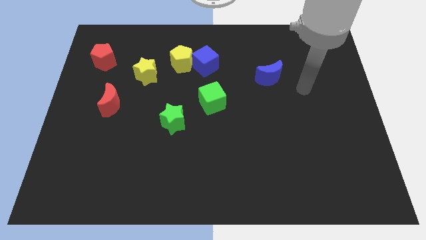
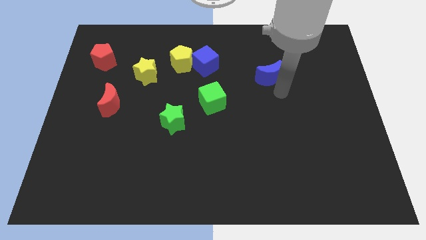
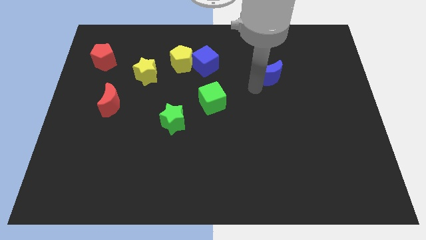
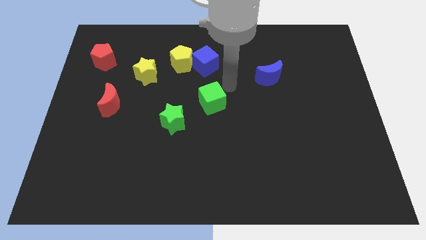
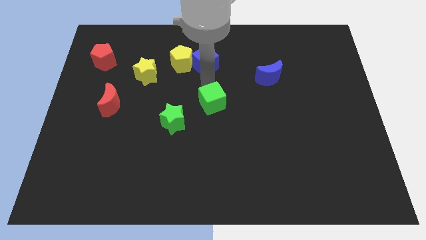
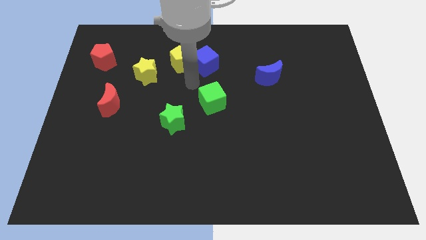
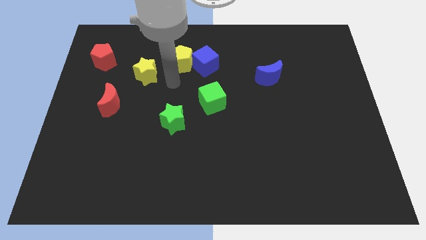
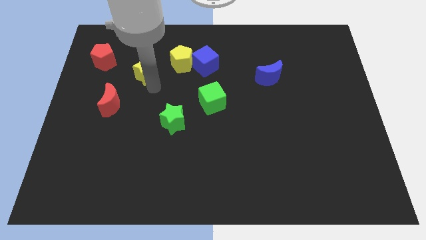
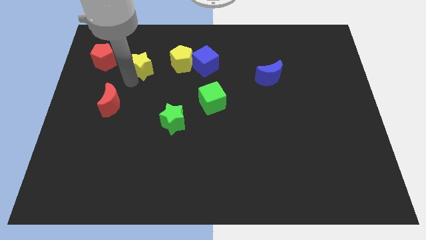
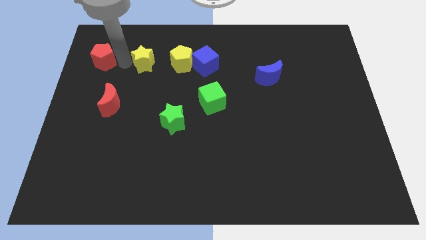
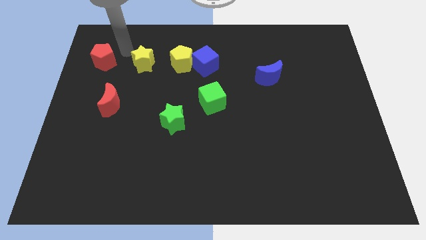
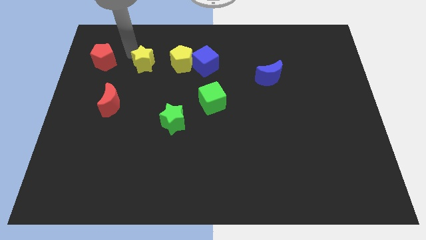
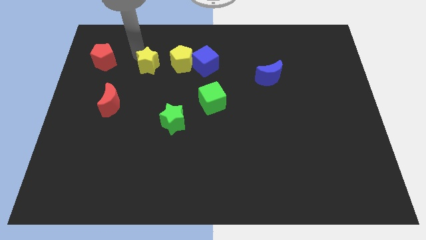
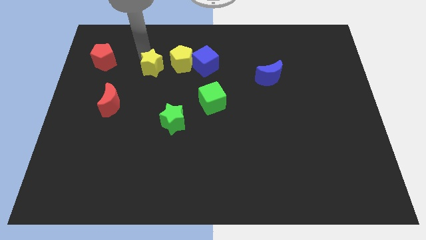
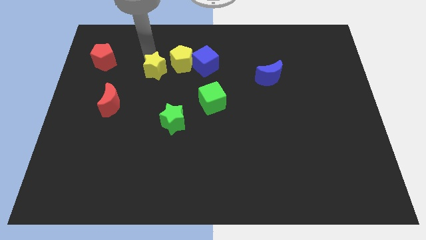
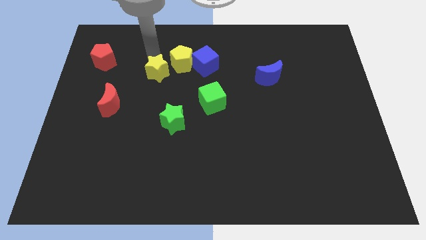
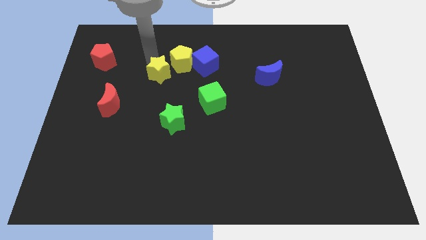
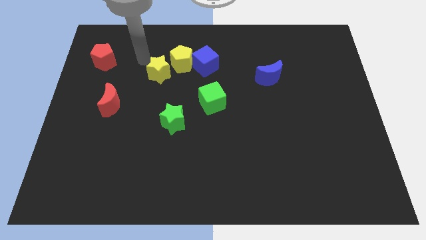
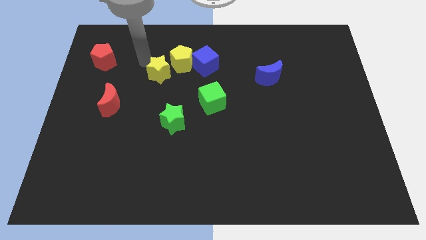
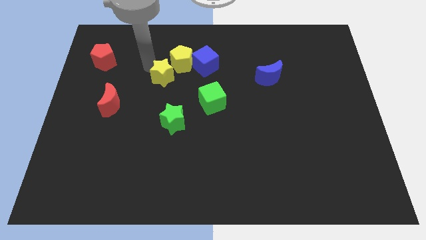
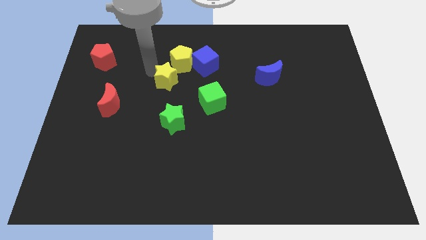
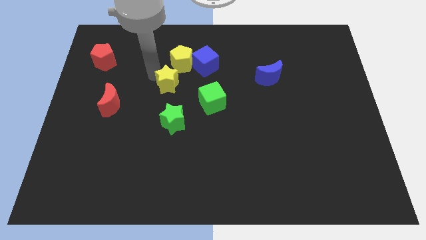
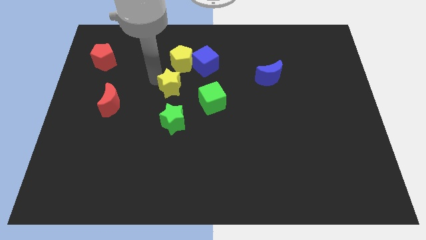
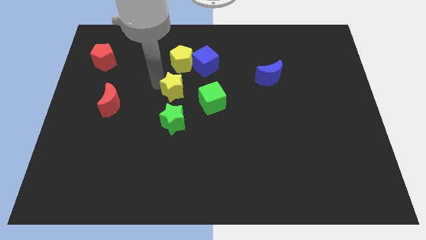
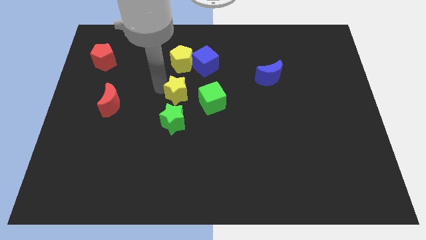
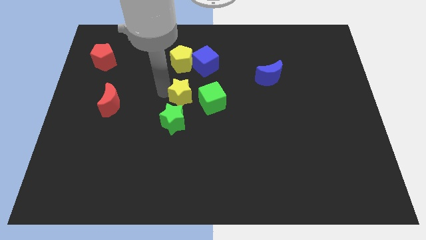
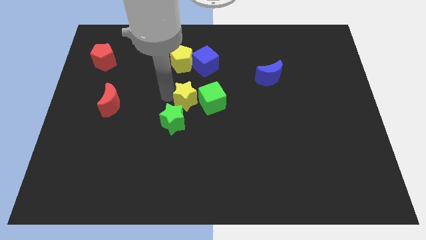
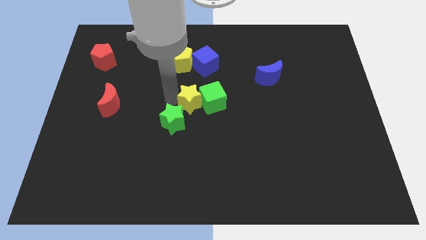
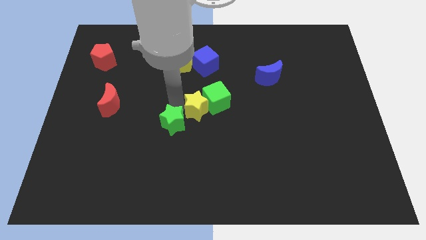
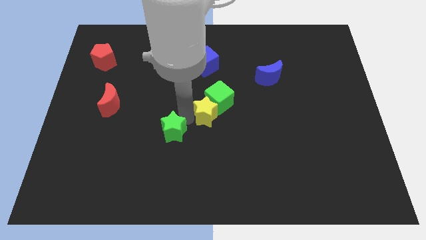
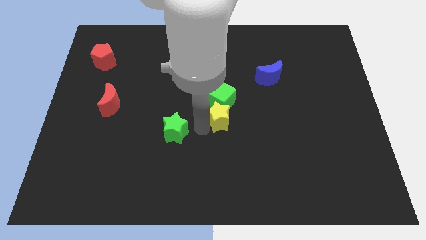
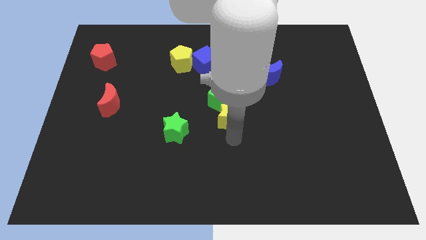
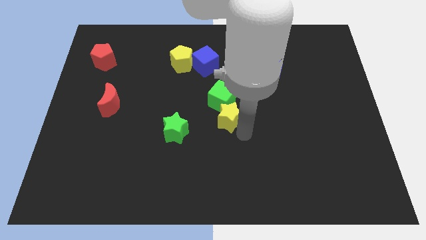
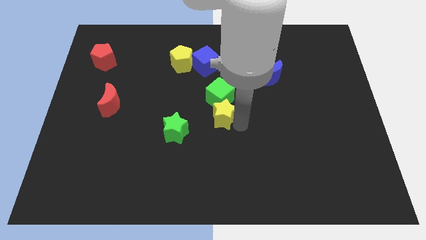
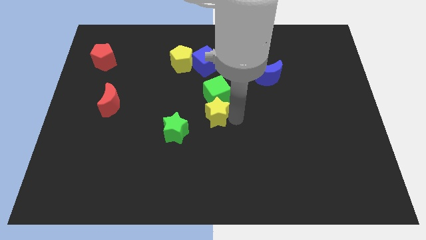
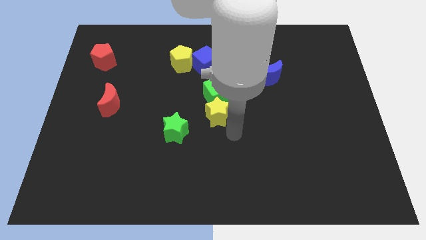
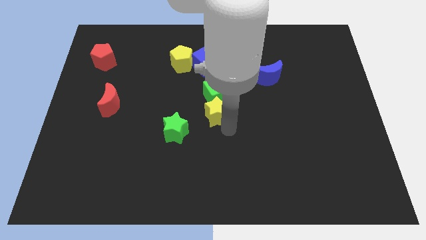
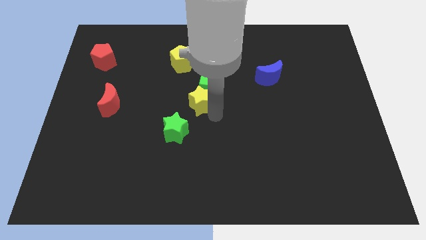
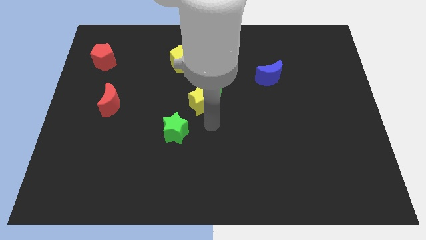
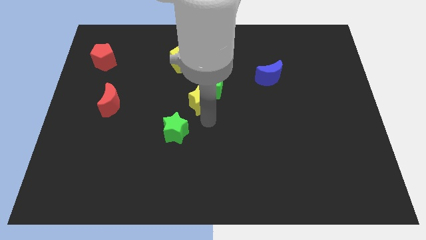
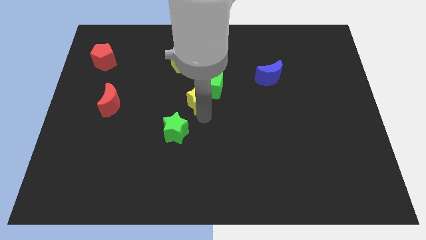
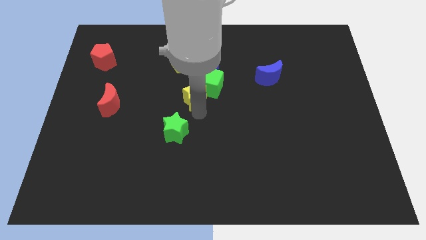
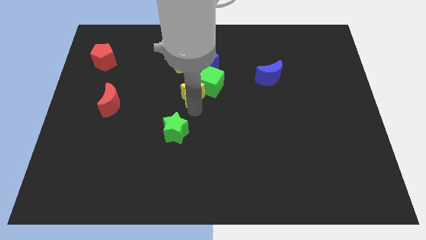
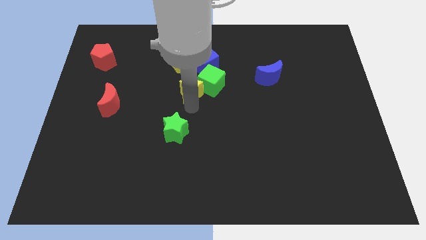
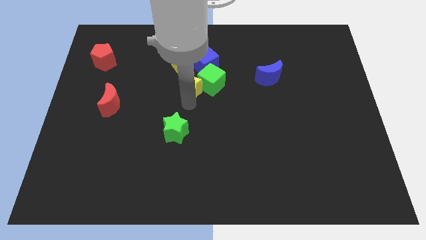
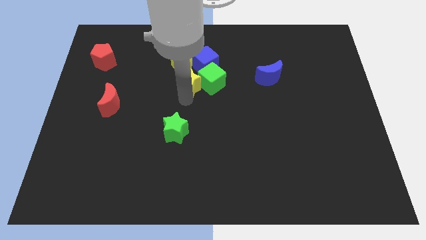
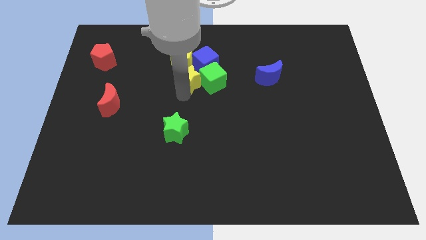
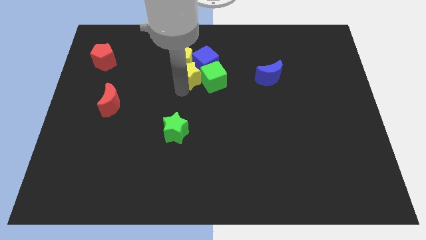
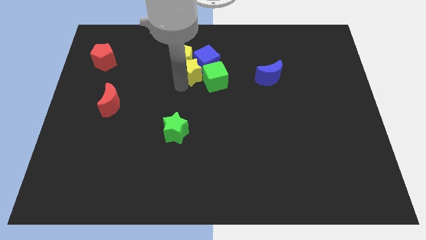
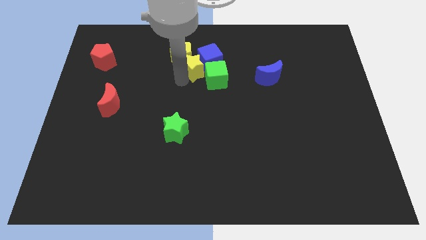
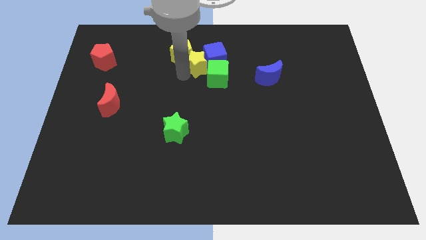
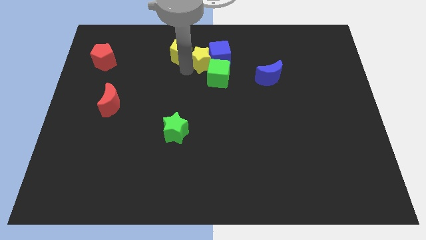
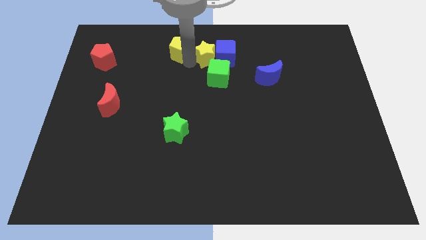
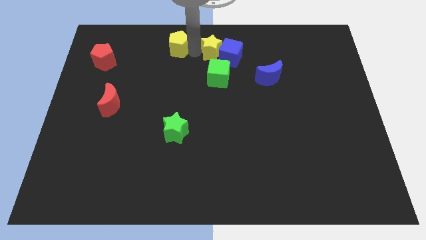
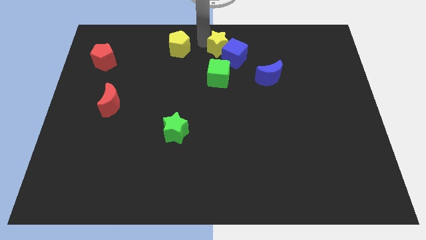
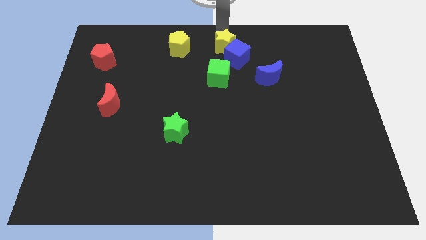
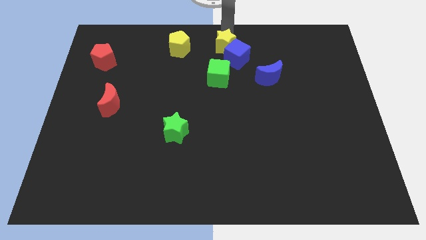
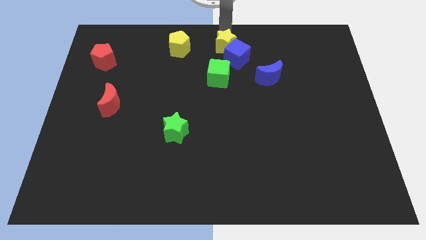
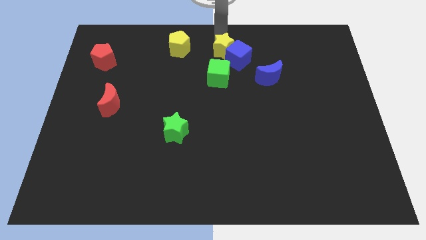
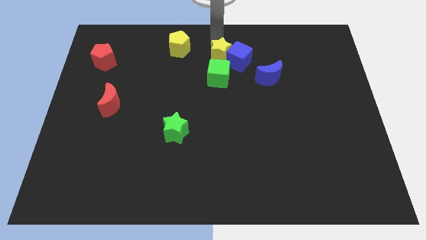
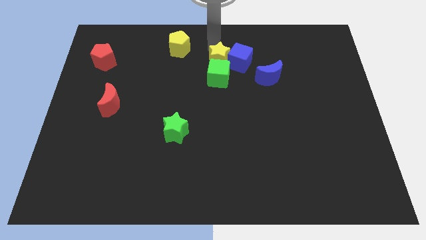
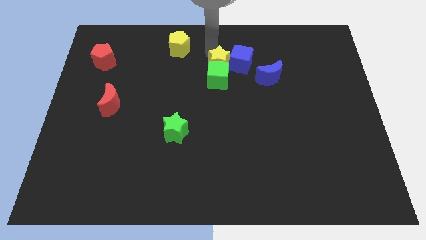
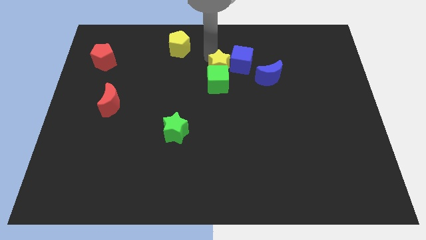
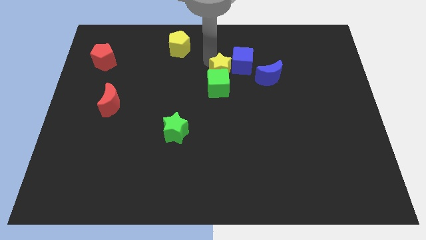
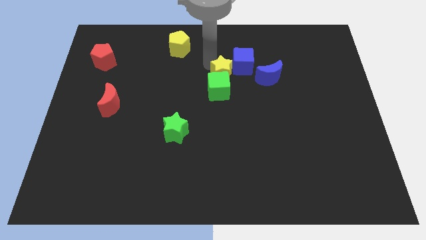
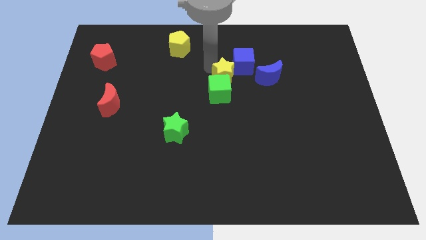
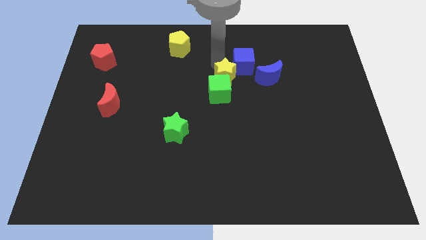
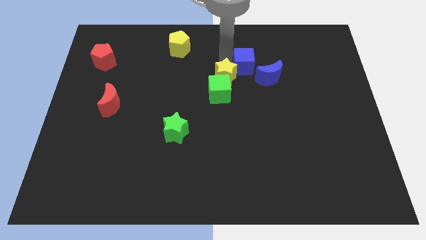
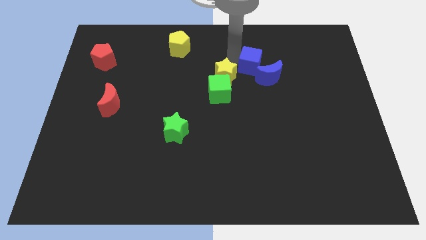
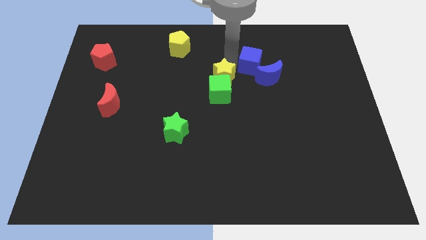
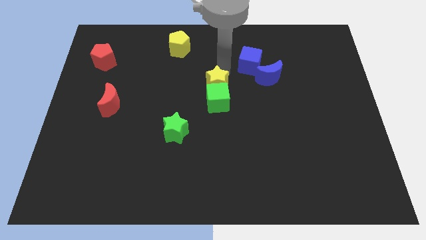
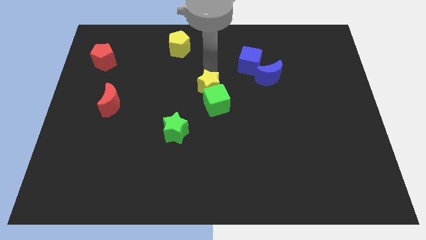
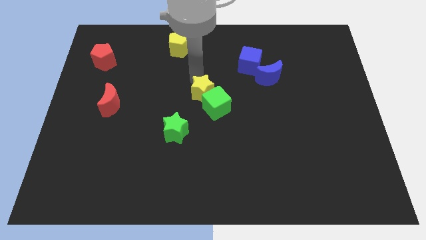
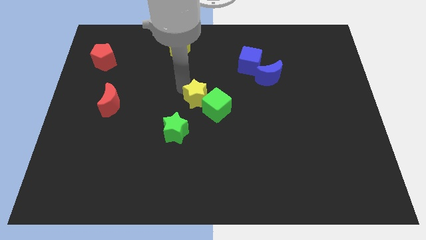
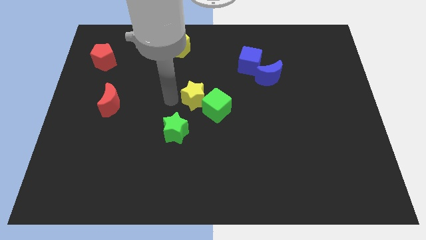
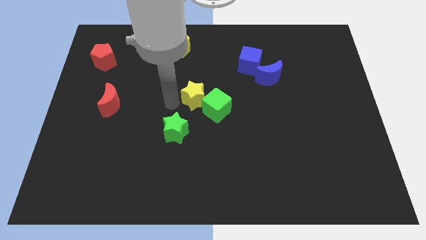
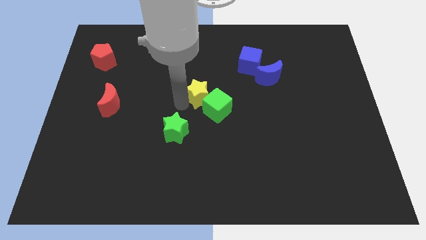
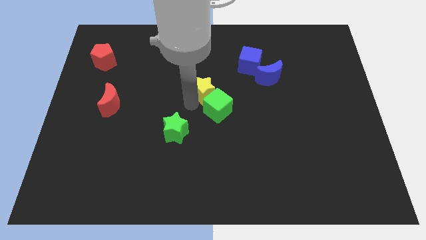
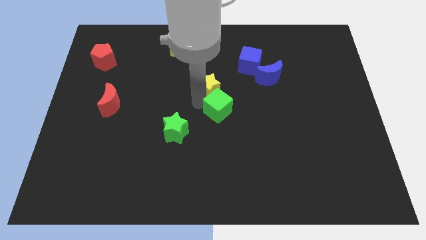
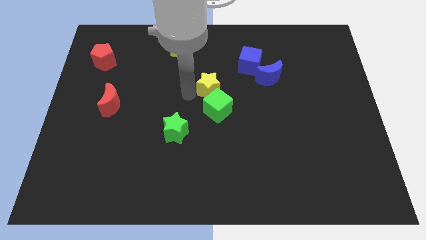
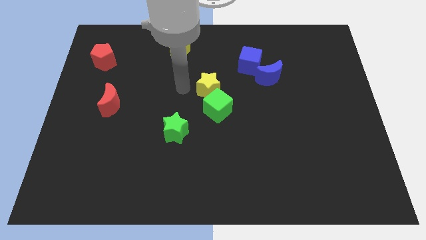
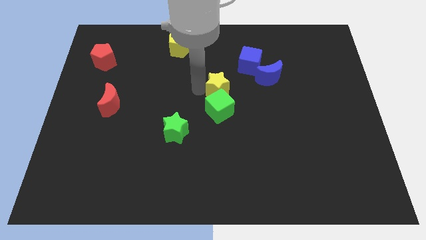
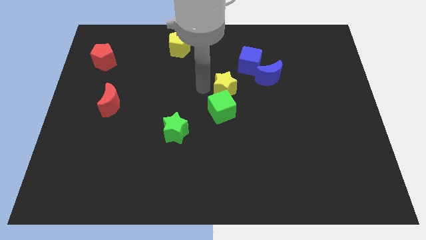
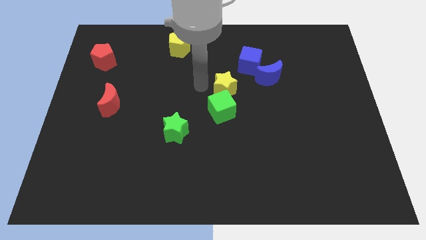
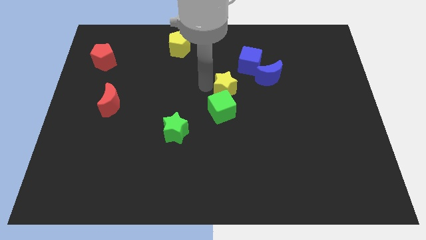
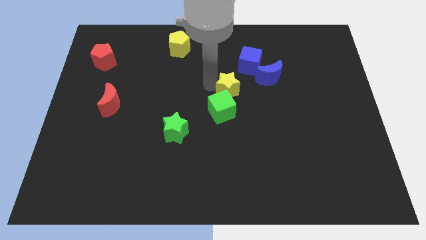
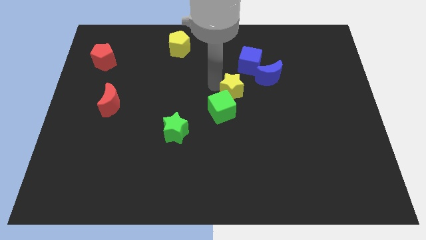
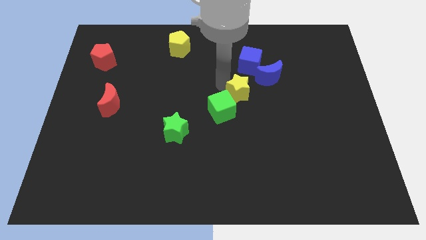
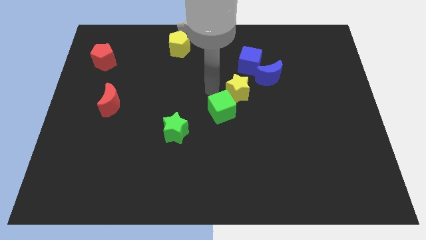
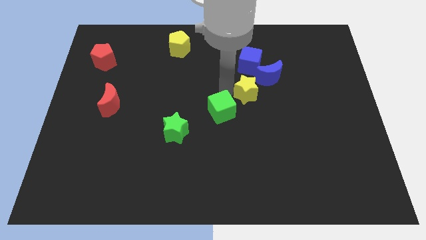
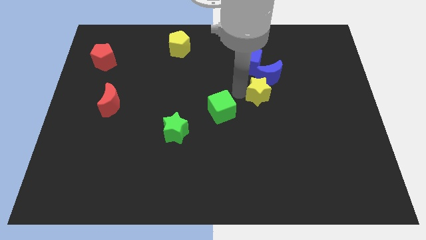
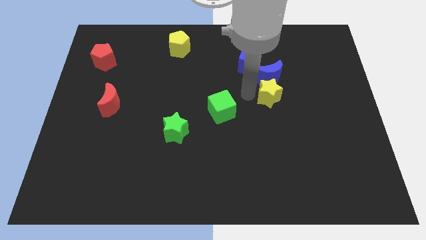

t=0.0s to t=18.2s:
put the yellow star to the bottom right side of the blue moon
